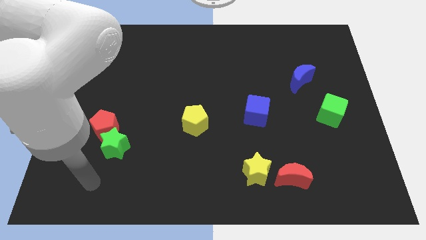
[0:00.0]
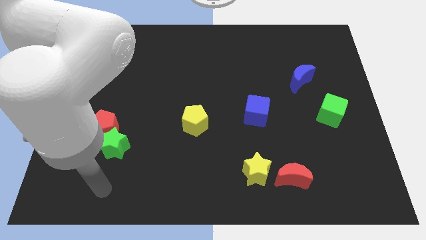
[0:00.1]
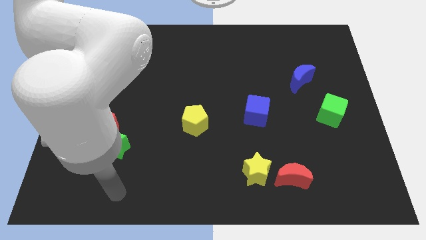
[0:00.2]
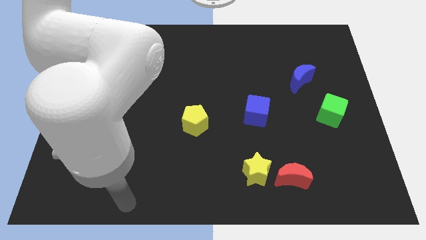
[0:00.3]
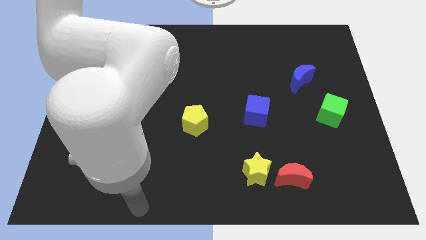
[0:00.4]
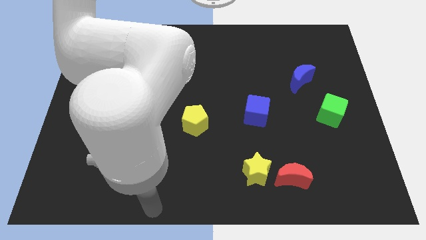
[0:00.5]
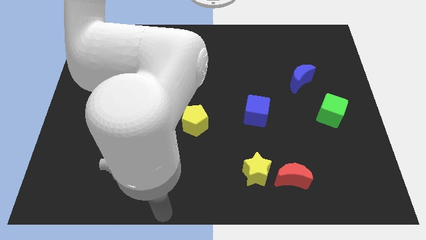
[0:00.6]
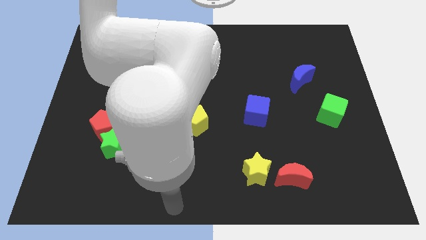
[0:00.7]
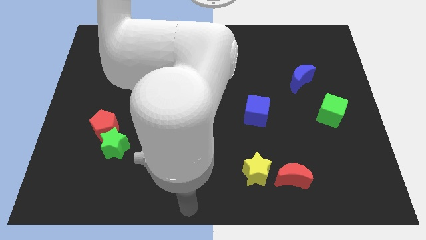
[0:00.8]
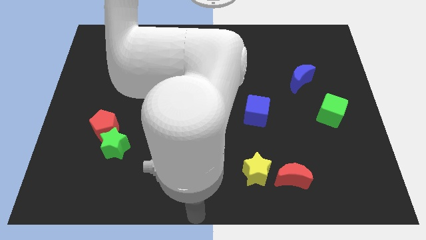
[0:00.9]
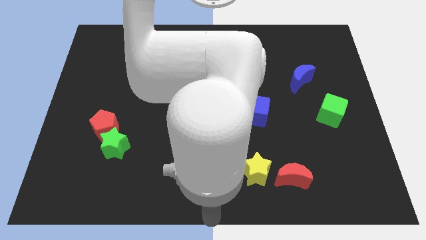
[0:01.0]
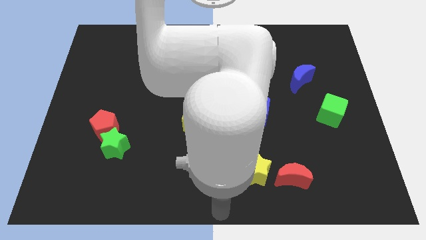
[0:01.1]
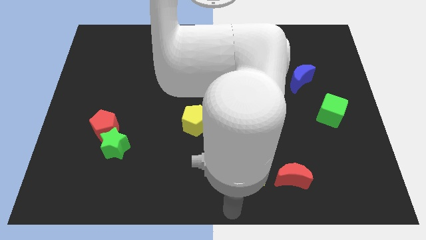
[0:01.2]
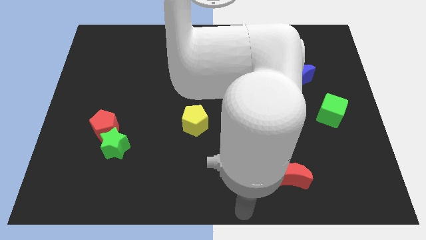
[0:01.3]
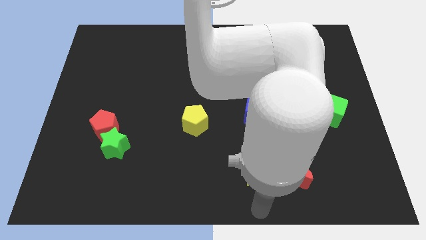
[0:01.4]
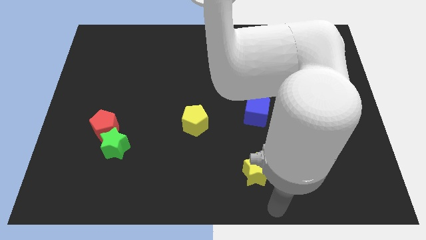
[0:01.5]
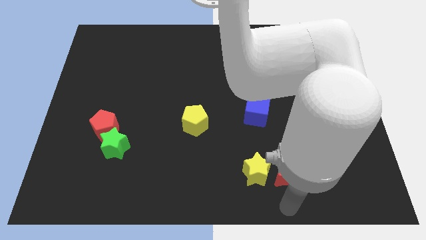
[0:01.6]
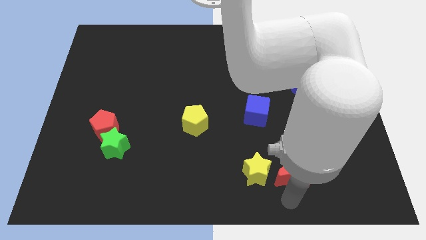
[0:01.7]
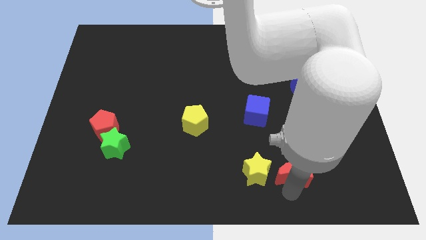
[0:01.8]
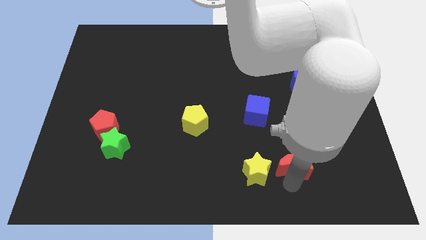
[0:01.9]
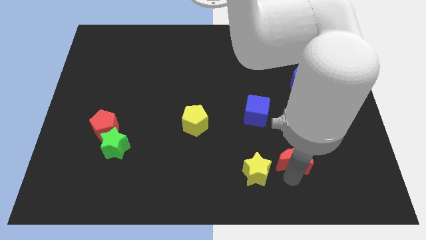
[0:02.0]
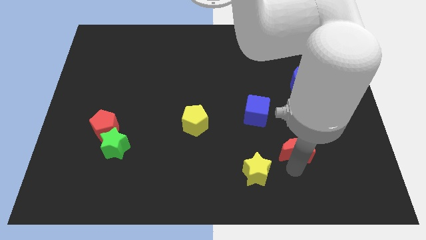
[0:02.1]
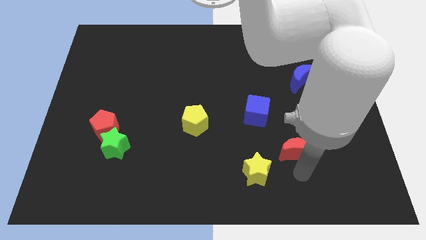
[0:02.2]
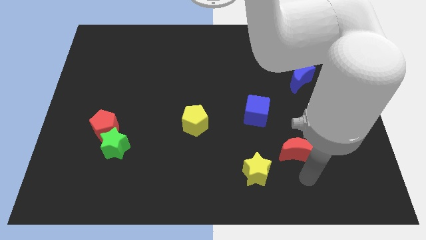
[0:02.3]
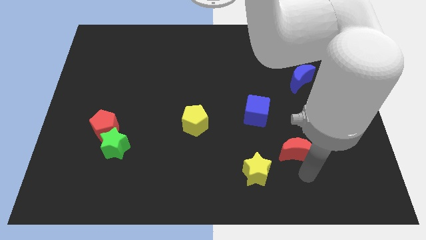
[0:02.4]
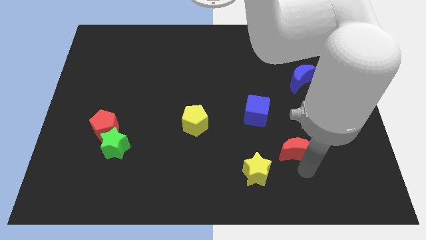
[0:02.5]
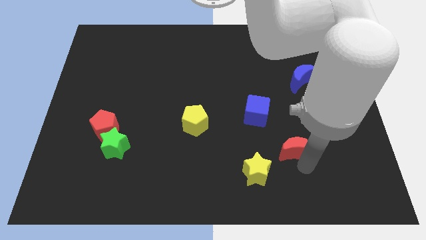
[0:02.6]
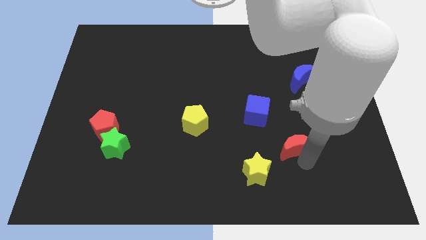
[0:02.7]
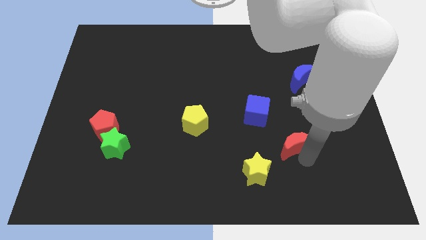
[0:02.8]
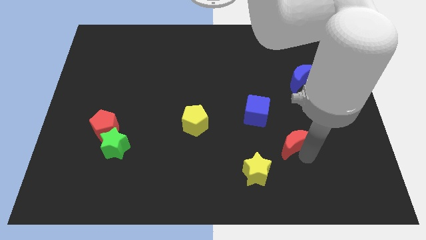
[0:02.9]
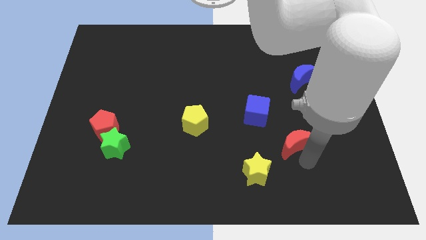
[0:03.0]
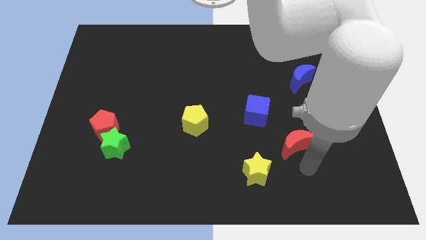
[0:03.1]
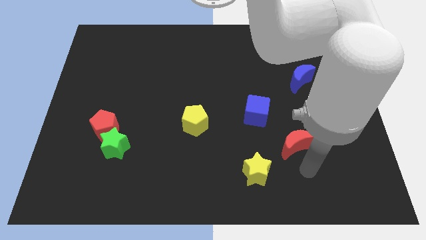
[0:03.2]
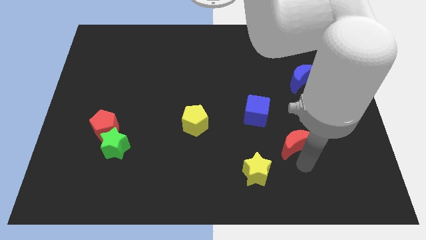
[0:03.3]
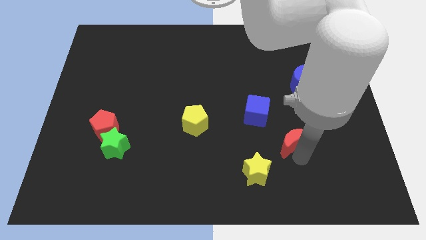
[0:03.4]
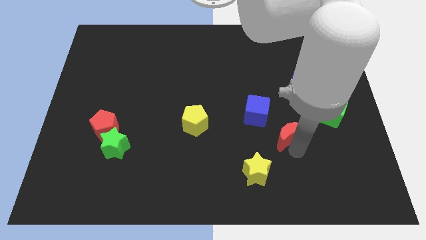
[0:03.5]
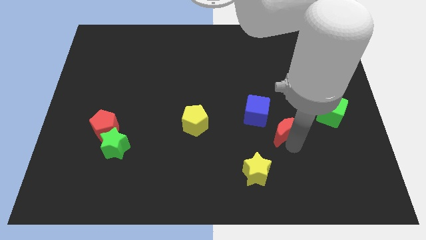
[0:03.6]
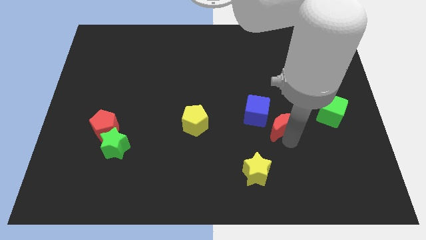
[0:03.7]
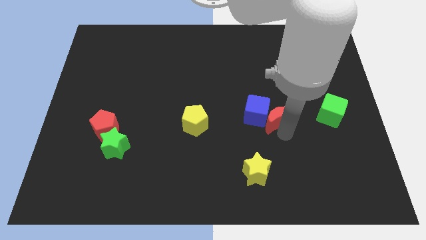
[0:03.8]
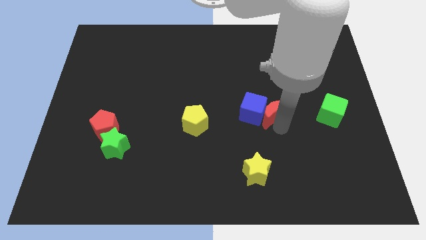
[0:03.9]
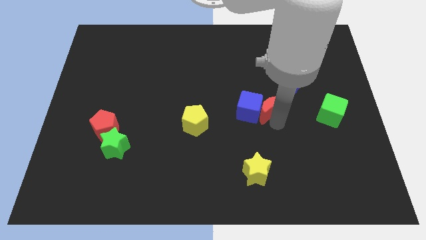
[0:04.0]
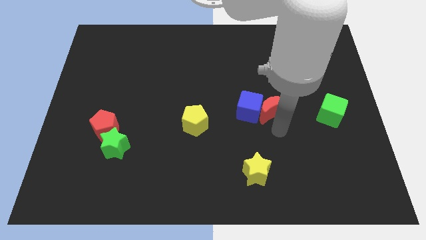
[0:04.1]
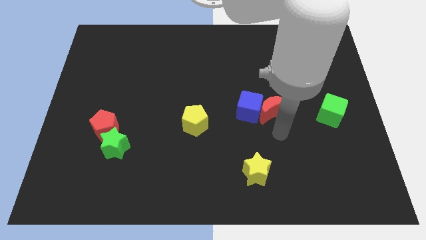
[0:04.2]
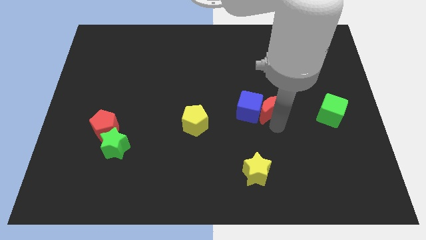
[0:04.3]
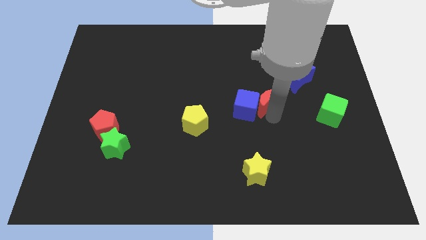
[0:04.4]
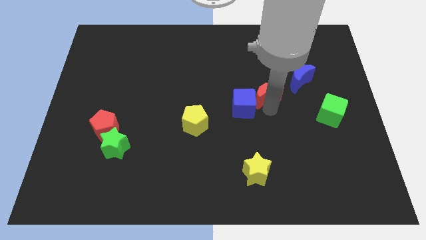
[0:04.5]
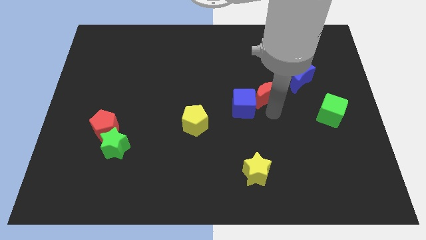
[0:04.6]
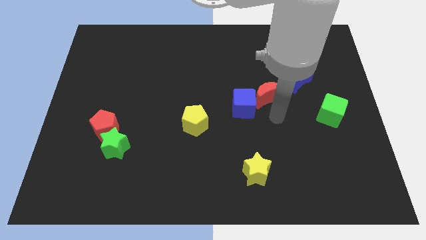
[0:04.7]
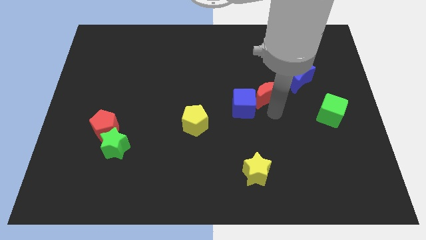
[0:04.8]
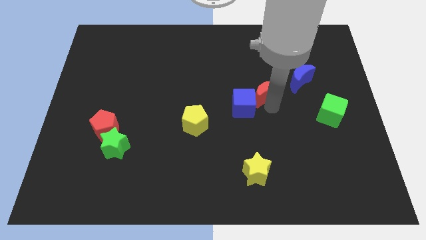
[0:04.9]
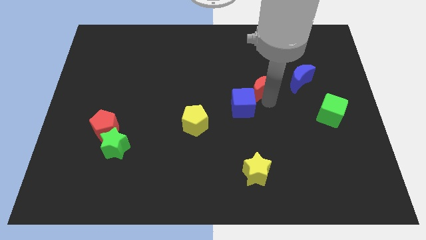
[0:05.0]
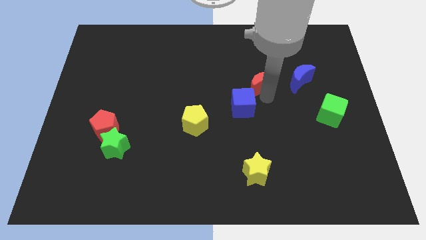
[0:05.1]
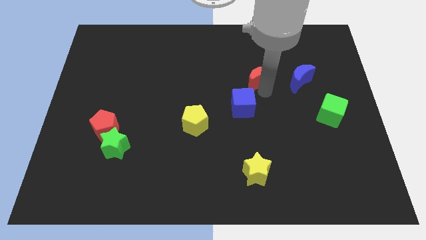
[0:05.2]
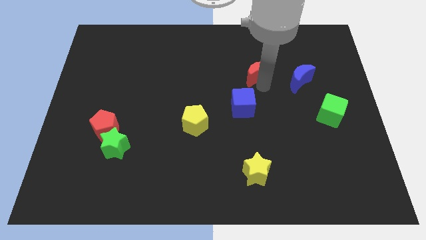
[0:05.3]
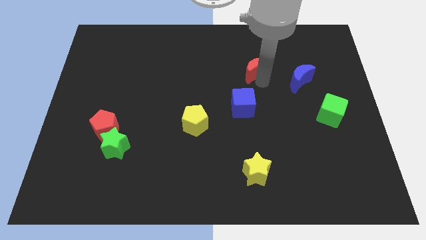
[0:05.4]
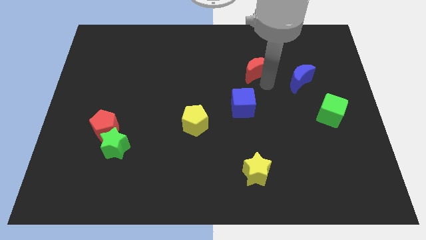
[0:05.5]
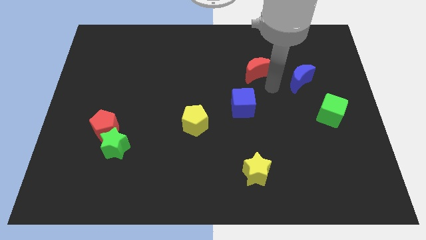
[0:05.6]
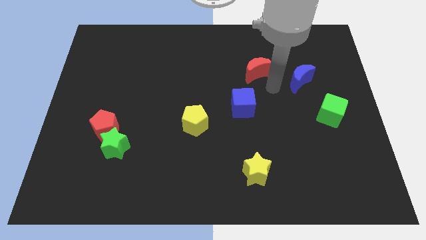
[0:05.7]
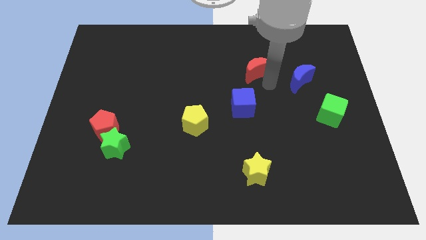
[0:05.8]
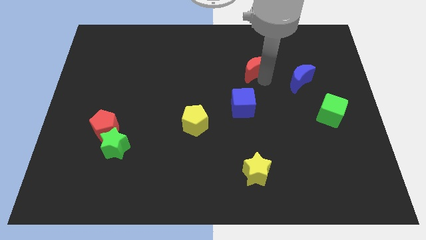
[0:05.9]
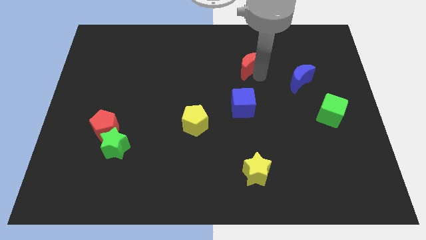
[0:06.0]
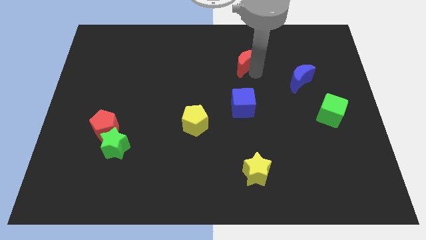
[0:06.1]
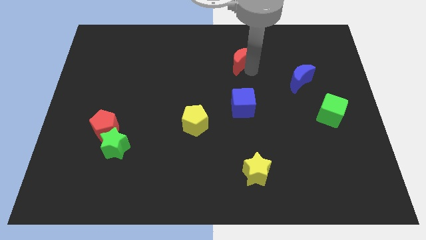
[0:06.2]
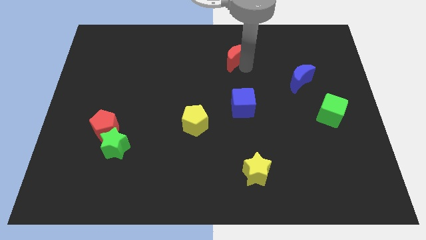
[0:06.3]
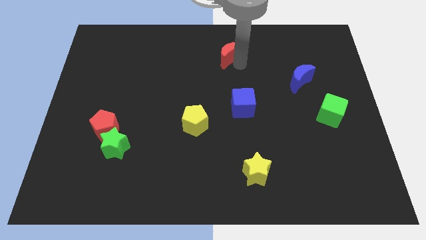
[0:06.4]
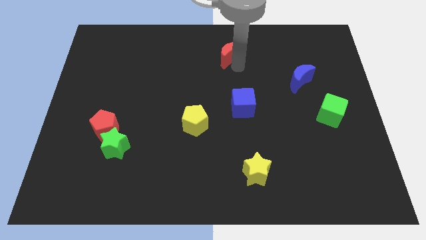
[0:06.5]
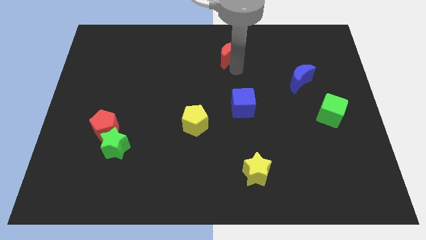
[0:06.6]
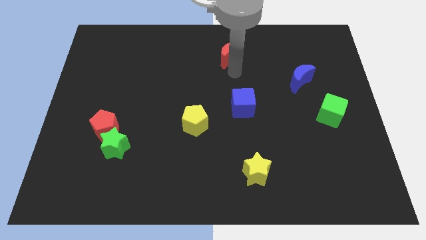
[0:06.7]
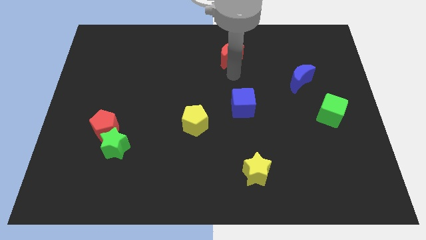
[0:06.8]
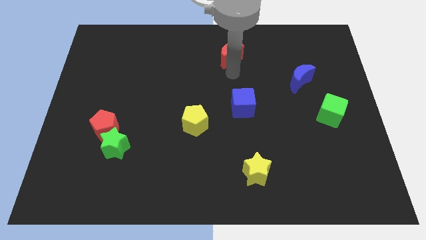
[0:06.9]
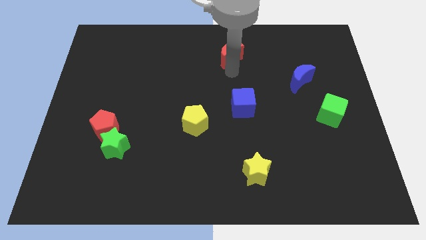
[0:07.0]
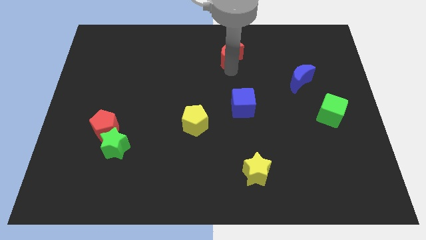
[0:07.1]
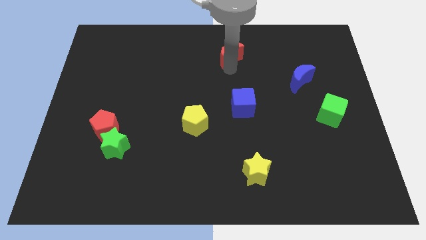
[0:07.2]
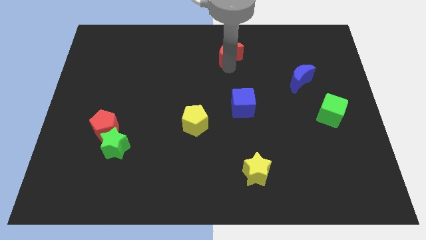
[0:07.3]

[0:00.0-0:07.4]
push the red moon to the towards your base

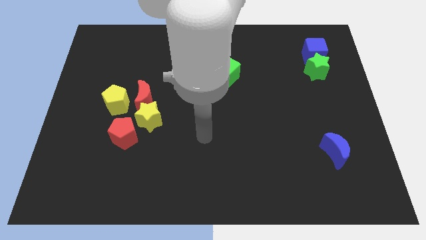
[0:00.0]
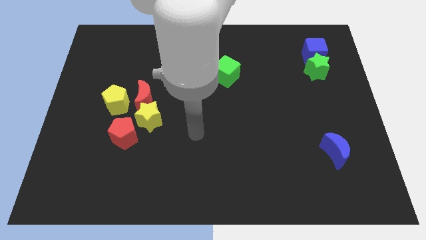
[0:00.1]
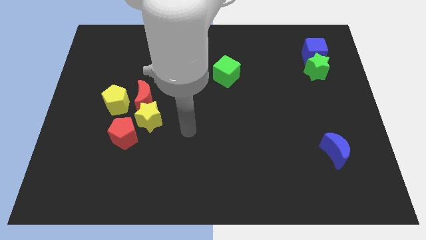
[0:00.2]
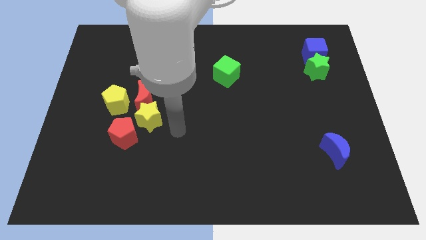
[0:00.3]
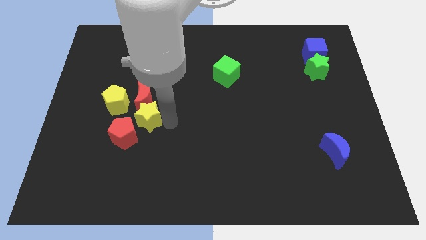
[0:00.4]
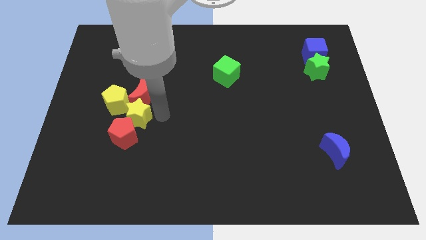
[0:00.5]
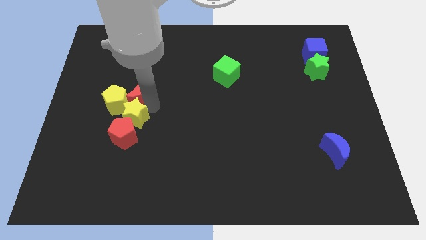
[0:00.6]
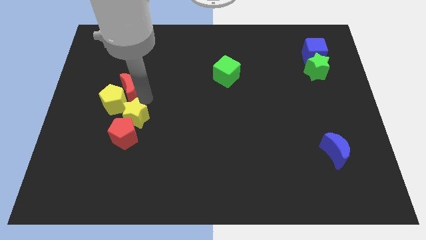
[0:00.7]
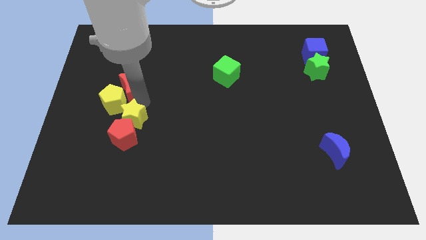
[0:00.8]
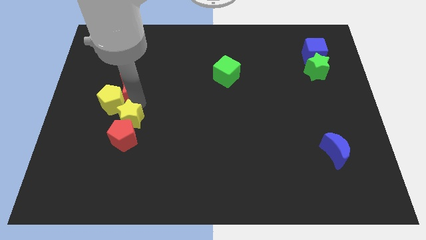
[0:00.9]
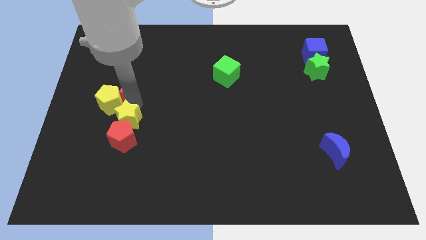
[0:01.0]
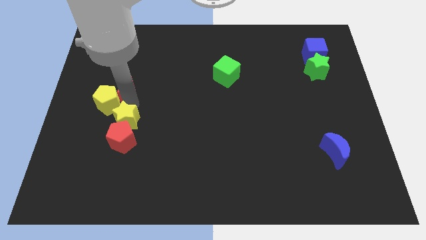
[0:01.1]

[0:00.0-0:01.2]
push the yellow pentagon to the left side
